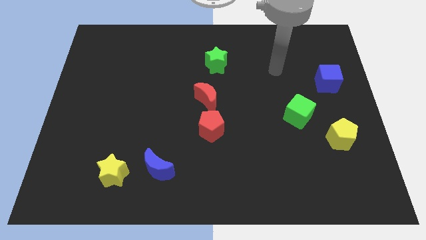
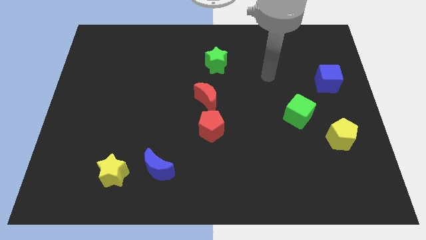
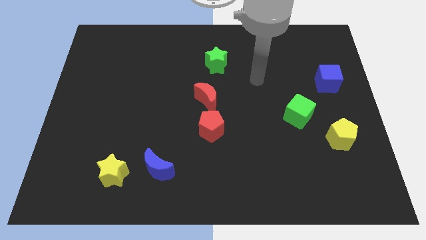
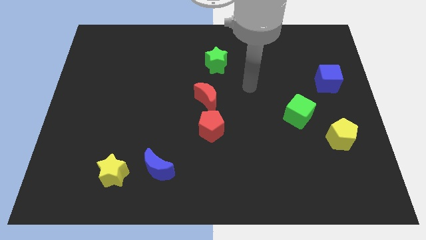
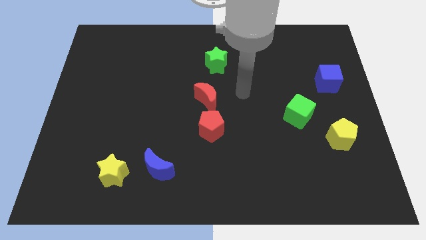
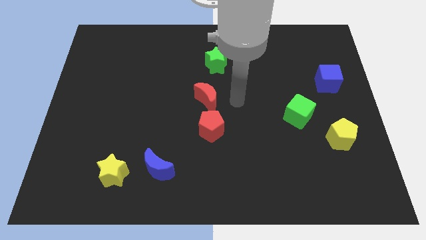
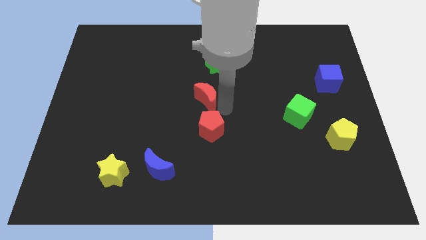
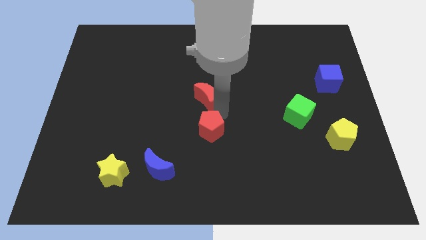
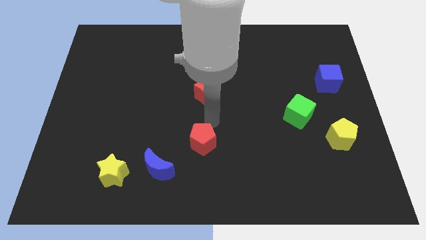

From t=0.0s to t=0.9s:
pull the red moon apart from the red pentagon

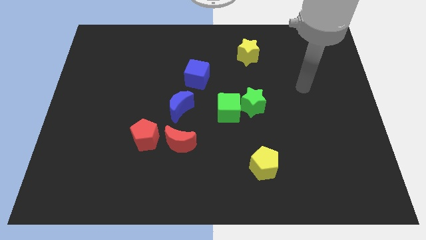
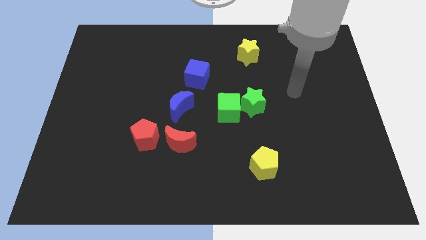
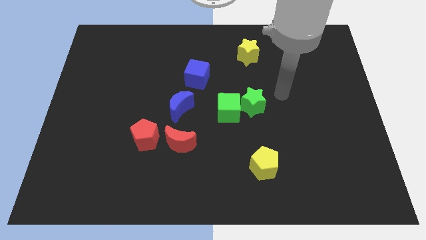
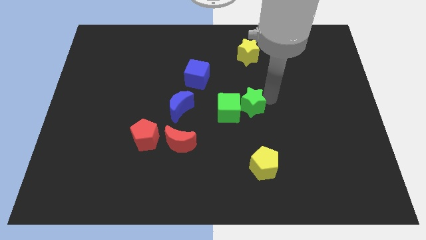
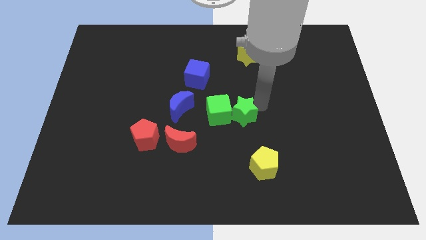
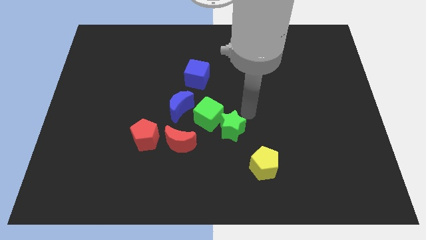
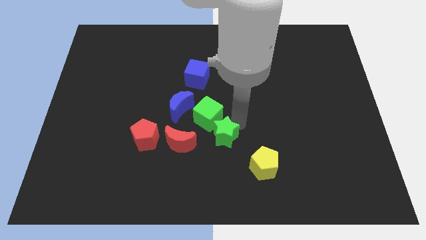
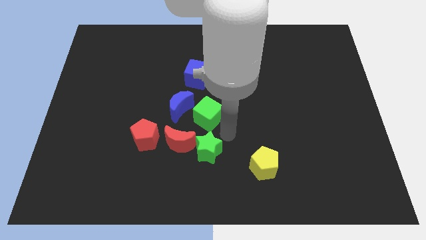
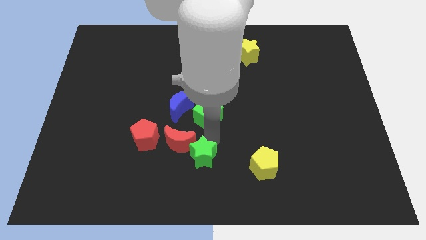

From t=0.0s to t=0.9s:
separate the green cube from the green star

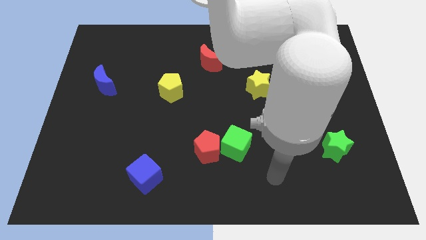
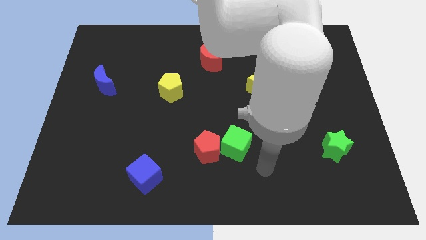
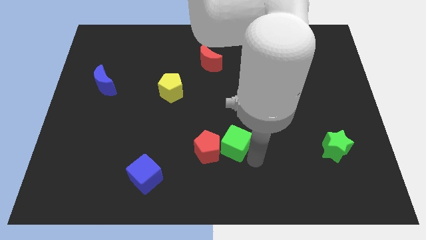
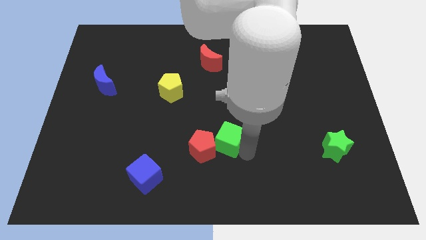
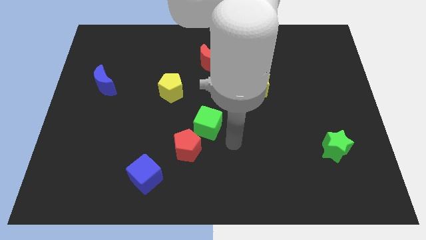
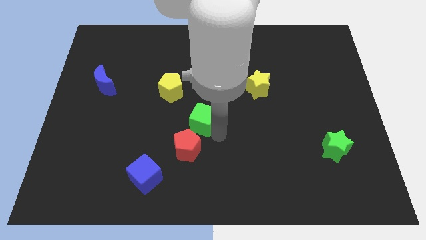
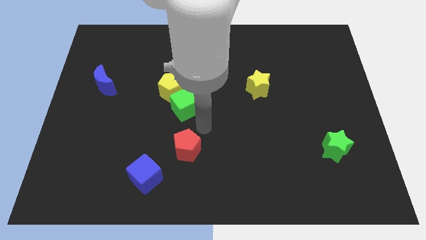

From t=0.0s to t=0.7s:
pull the red pentagon apart from the green cube

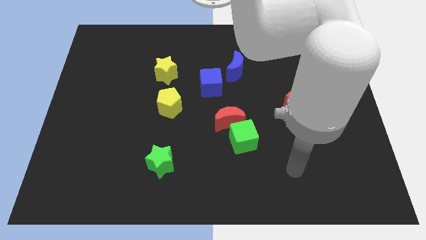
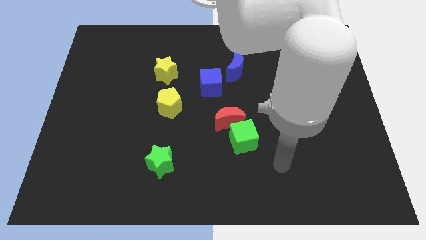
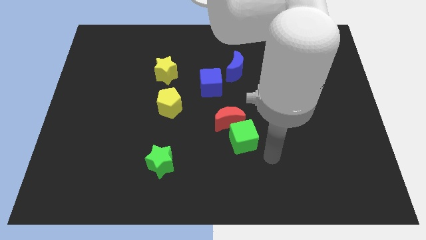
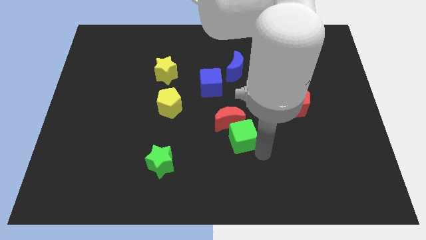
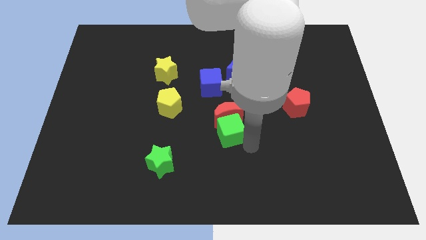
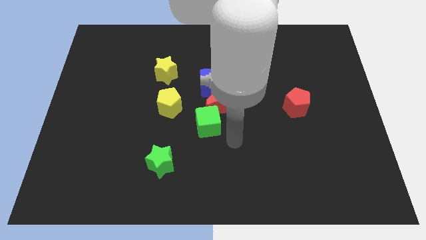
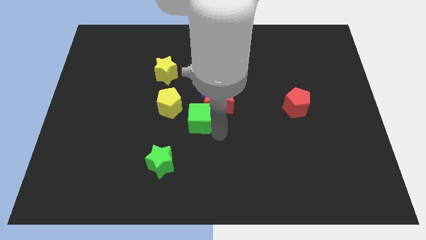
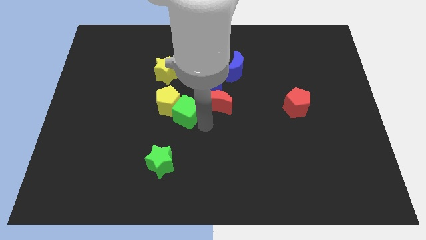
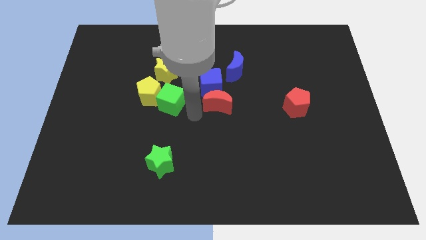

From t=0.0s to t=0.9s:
pull the red moon apart from the green cube

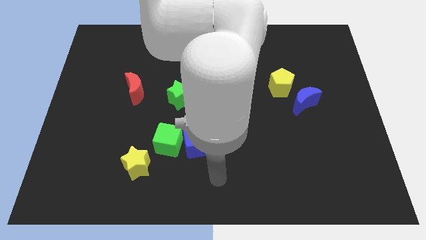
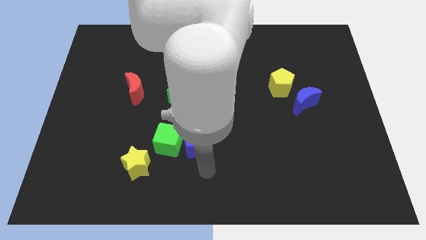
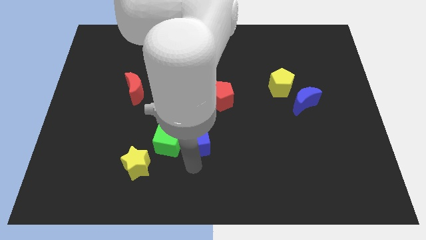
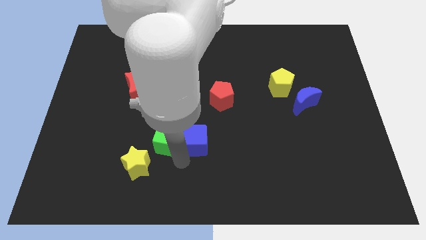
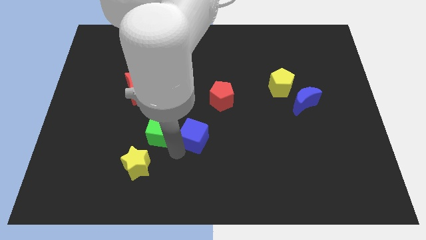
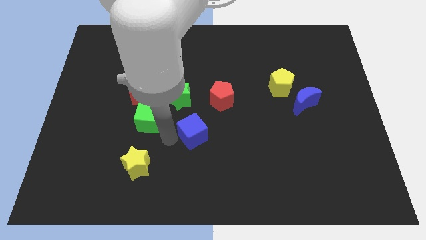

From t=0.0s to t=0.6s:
move the blue cube away from the green cube

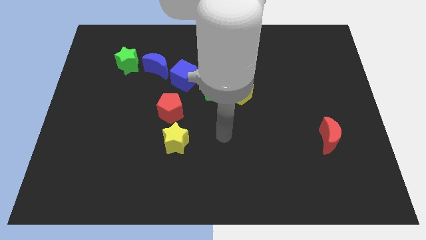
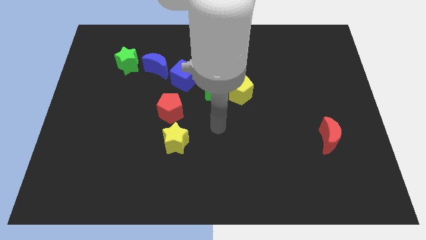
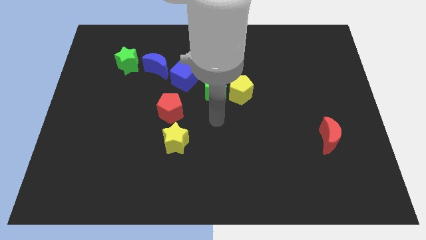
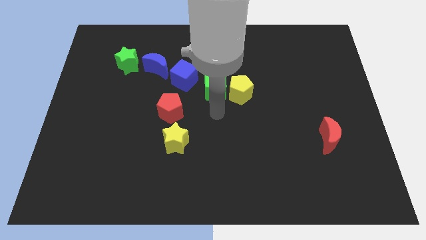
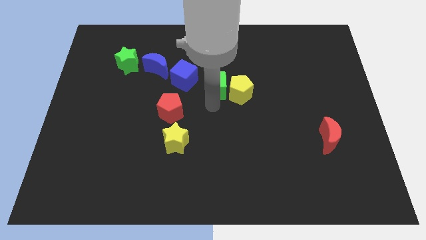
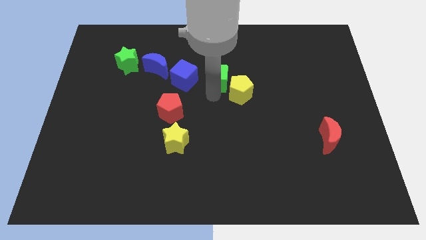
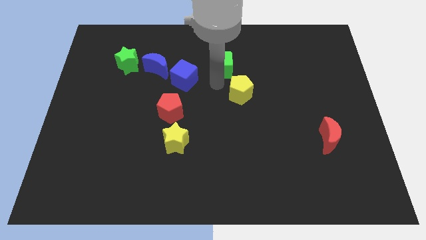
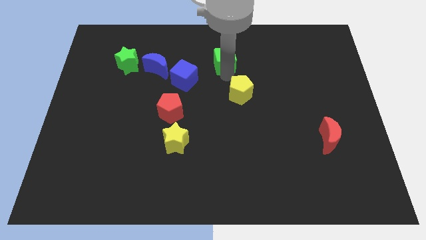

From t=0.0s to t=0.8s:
move the yellow pentagon away from the green cube

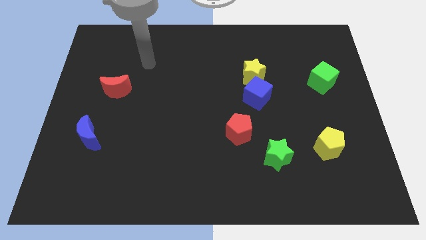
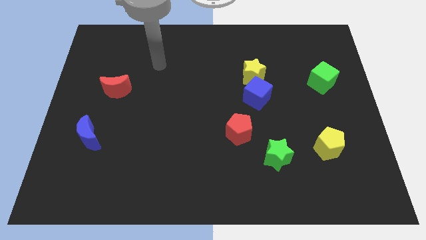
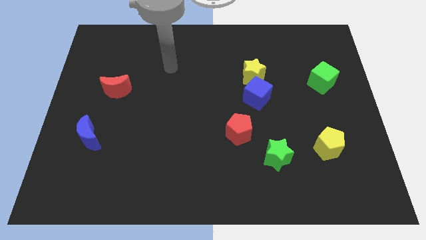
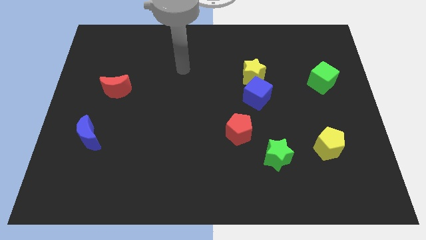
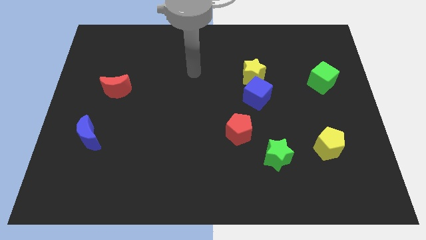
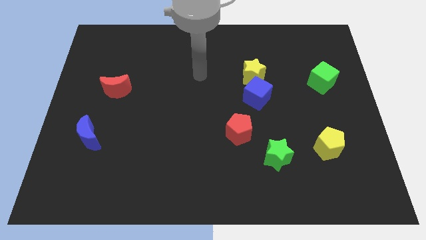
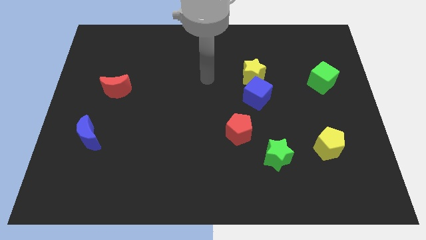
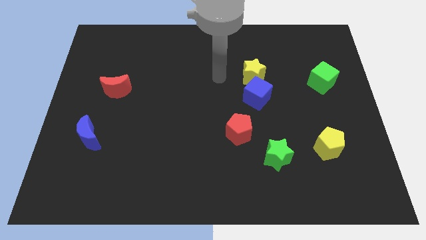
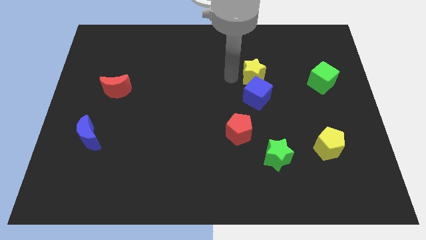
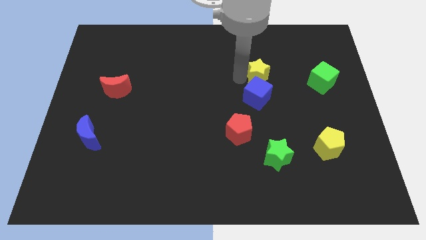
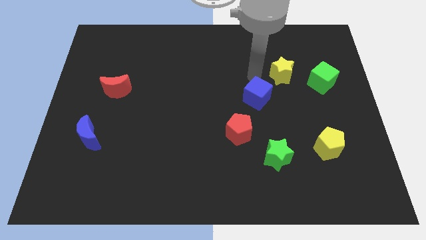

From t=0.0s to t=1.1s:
pull the blue cube apart from the yellow star

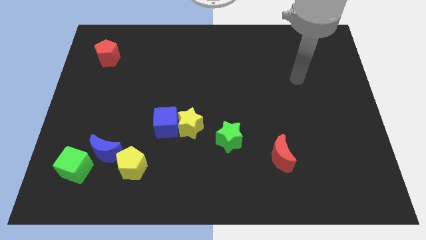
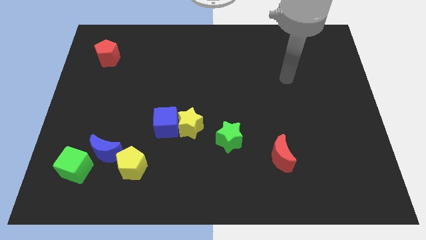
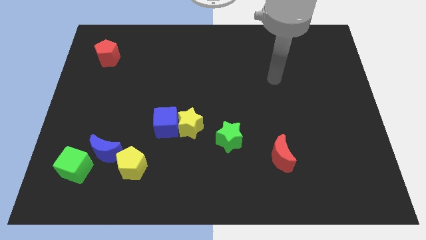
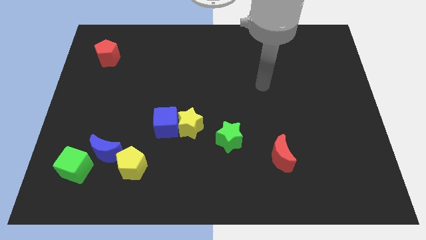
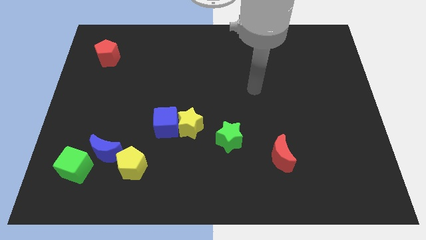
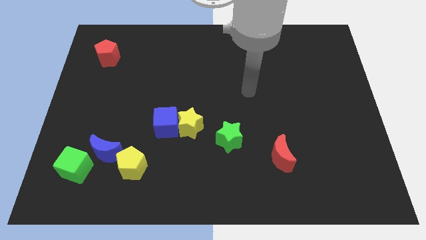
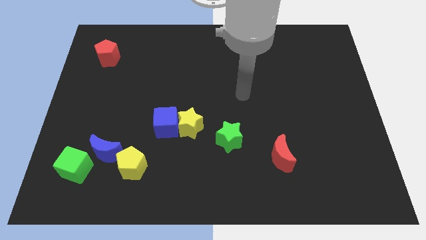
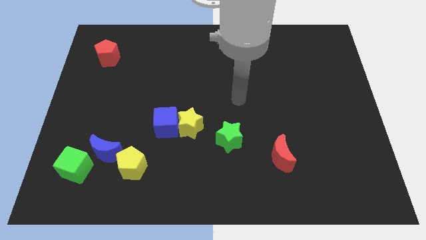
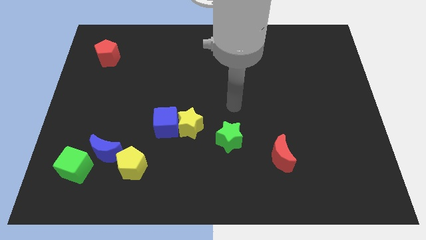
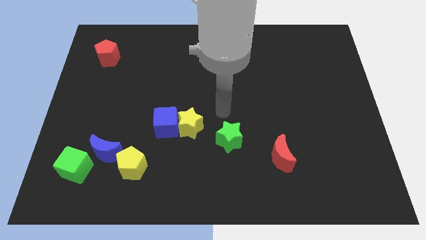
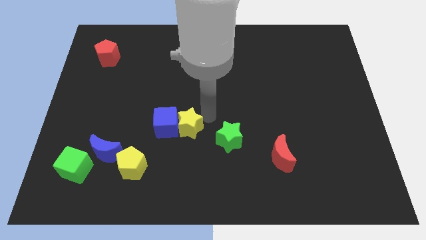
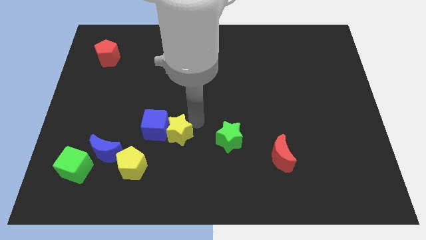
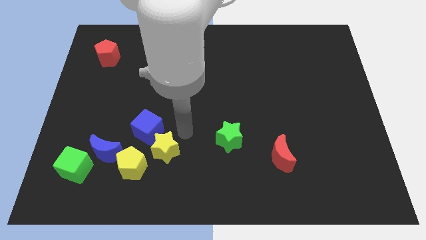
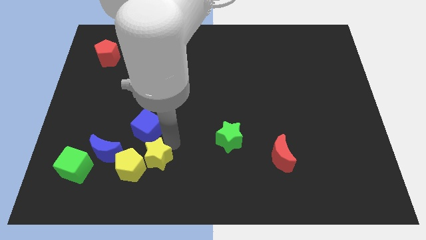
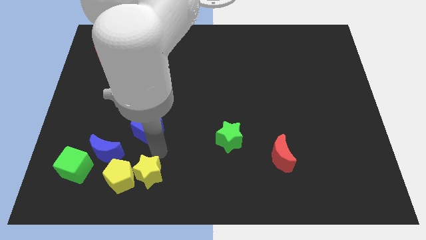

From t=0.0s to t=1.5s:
separate the blue cube from the yellow star

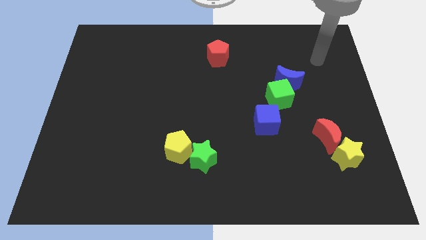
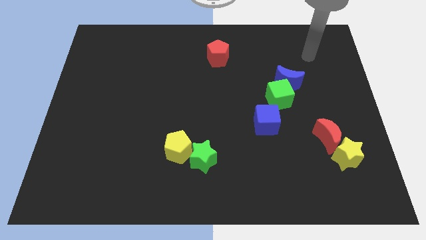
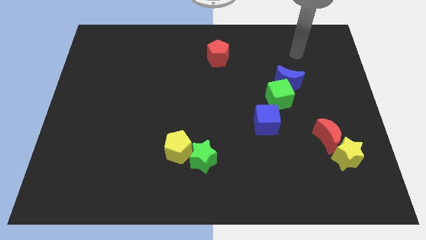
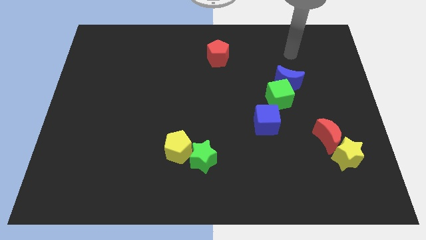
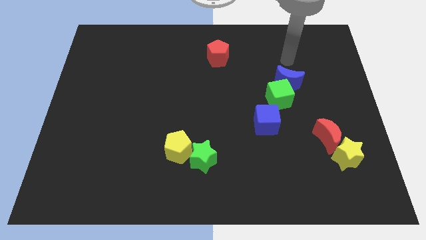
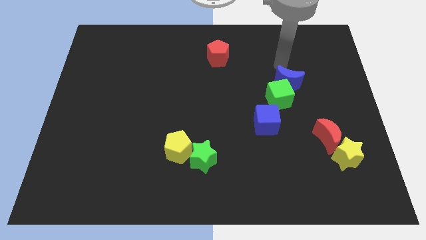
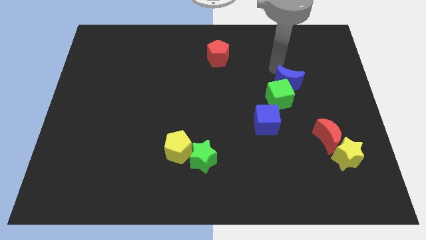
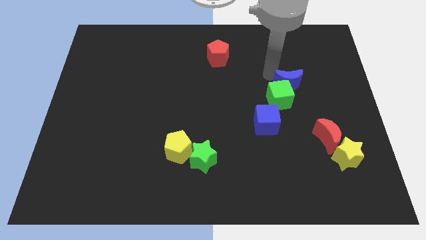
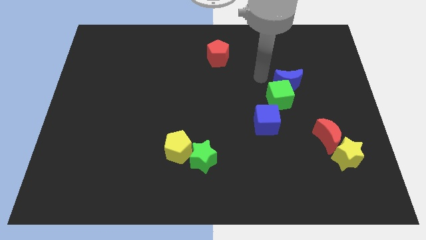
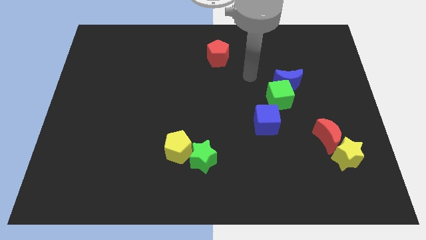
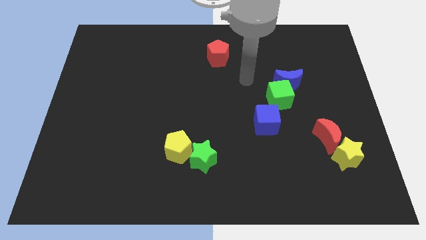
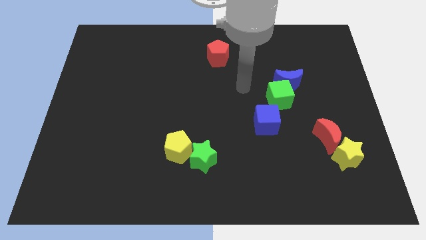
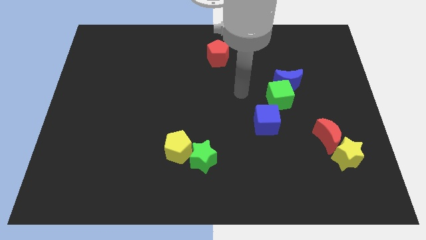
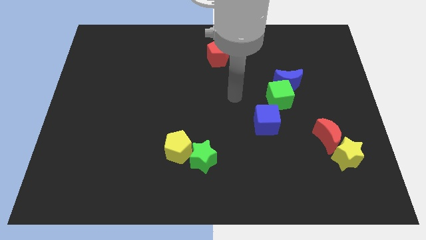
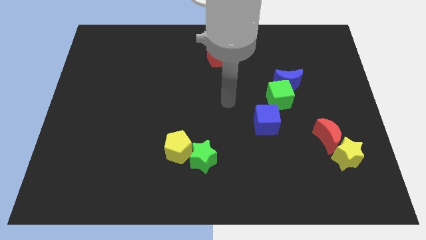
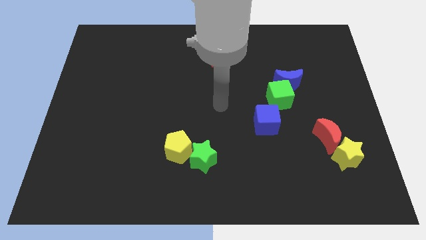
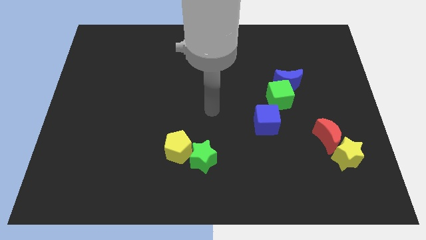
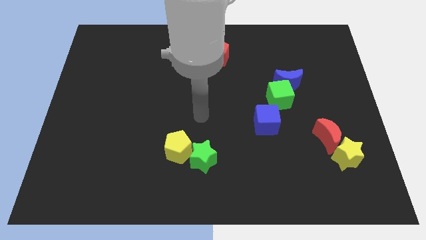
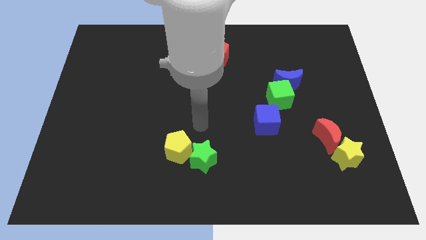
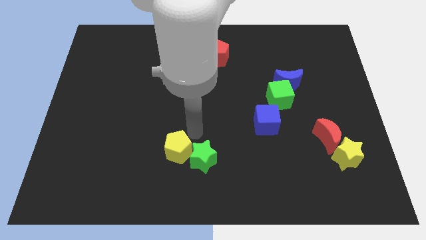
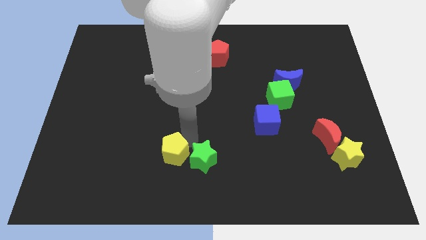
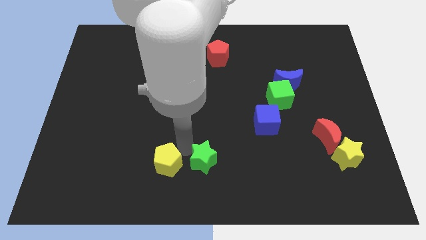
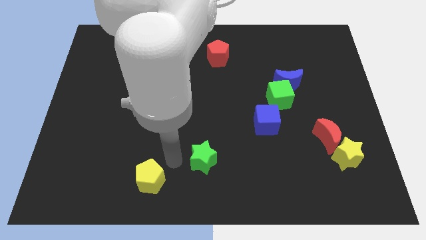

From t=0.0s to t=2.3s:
move the green star away from the yellow pentagon
